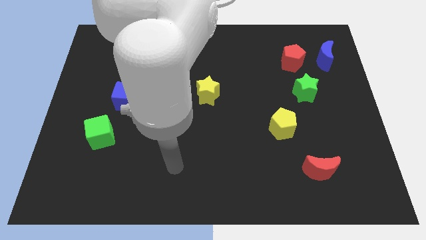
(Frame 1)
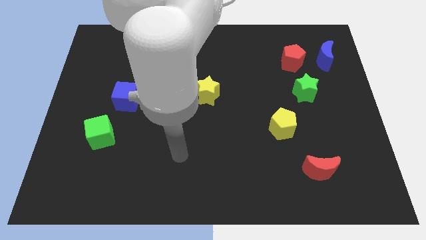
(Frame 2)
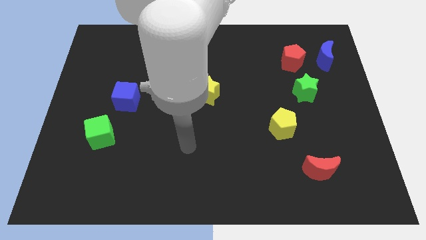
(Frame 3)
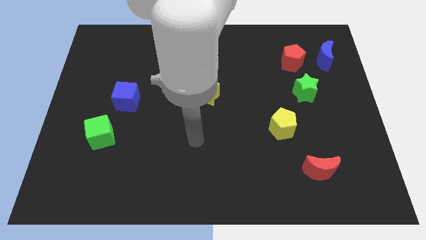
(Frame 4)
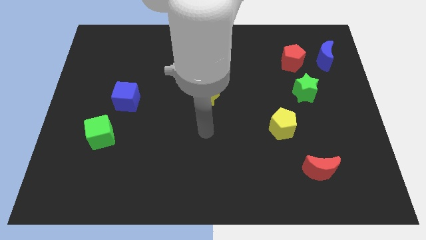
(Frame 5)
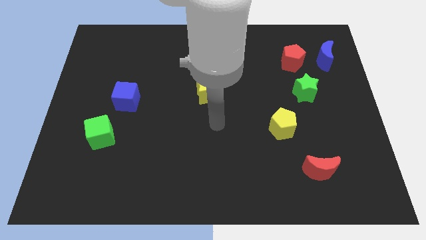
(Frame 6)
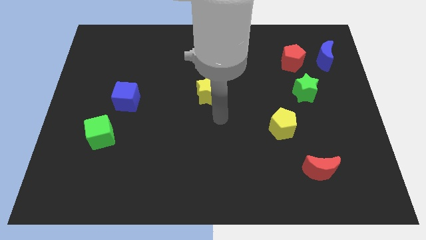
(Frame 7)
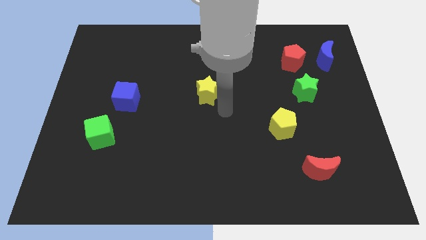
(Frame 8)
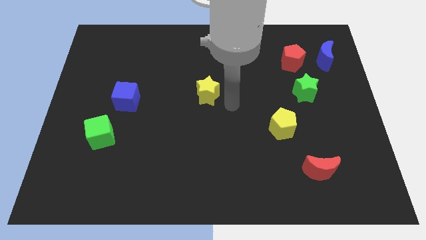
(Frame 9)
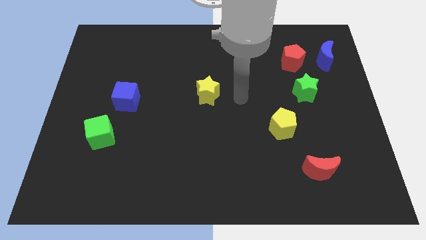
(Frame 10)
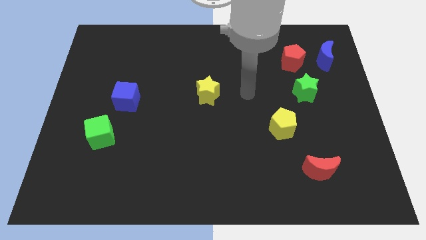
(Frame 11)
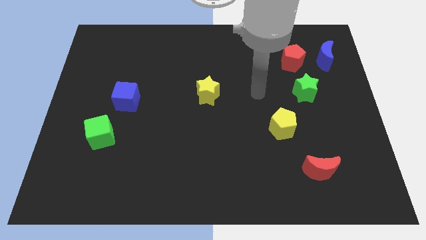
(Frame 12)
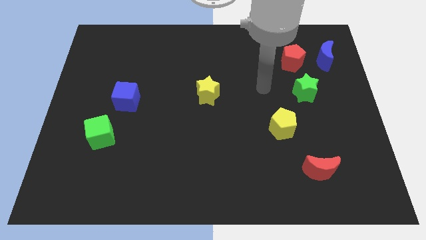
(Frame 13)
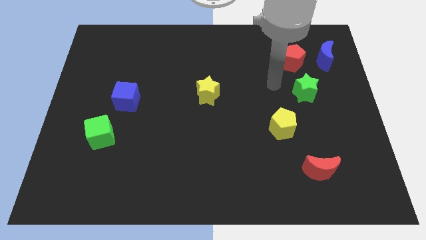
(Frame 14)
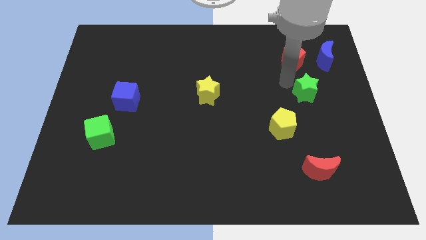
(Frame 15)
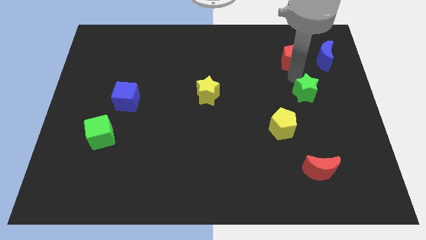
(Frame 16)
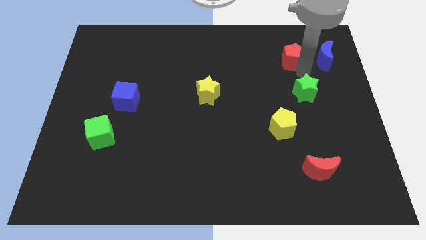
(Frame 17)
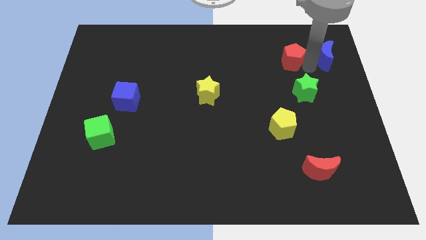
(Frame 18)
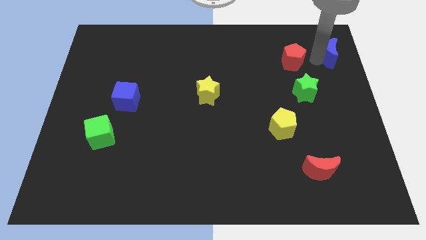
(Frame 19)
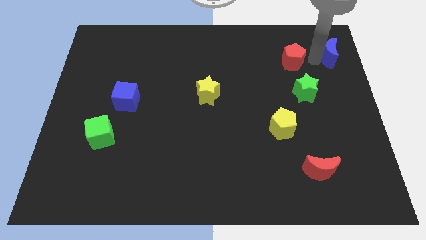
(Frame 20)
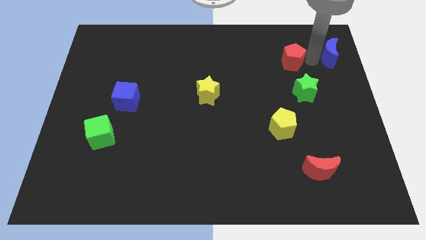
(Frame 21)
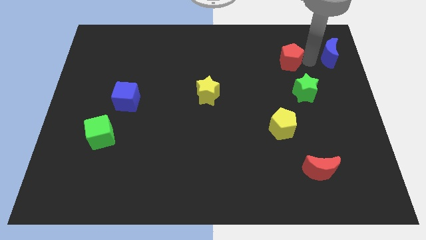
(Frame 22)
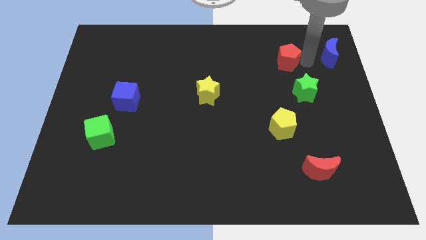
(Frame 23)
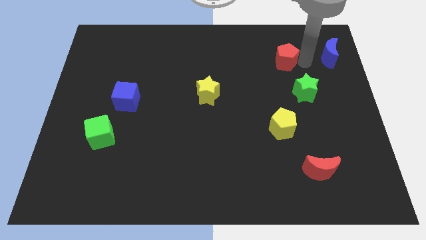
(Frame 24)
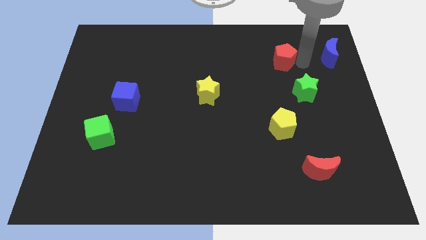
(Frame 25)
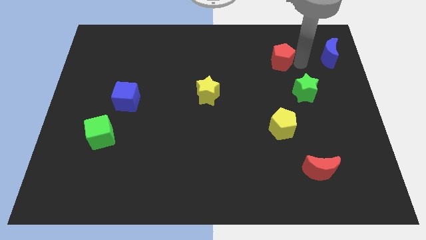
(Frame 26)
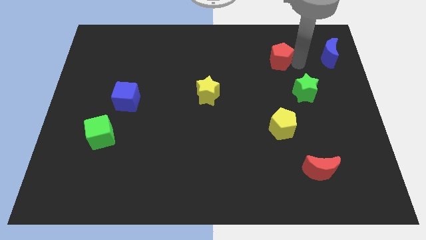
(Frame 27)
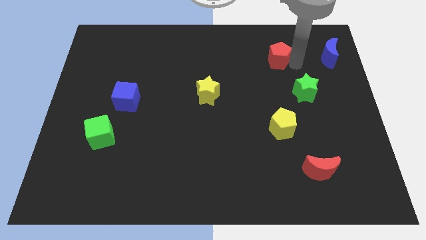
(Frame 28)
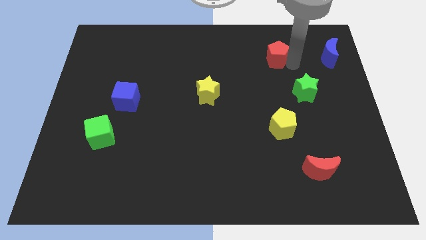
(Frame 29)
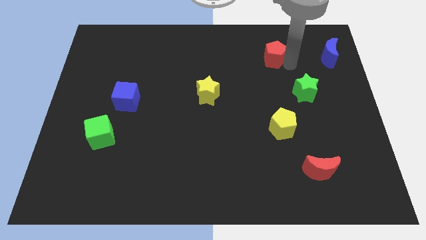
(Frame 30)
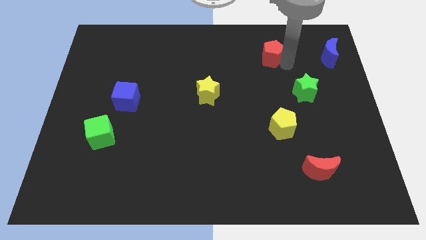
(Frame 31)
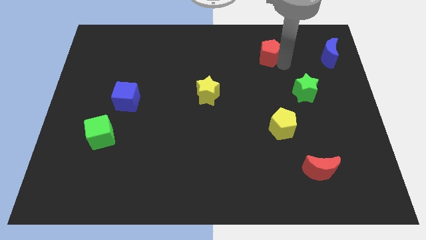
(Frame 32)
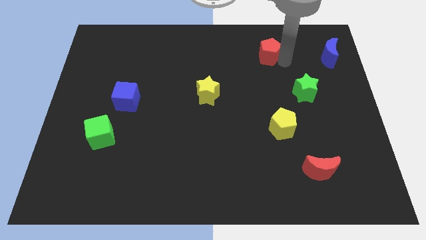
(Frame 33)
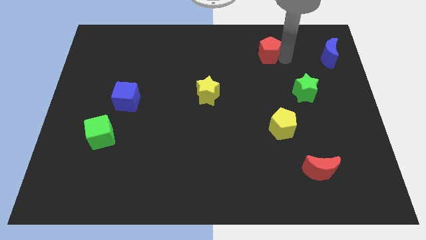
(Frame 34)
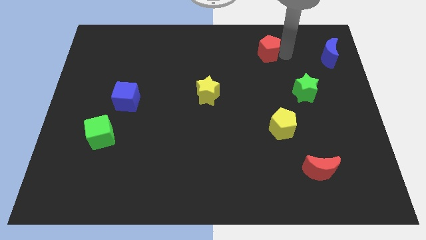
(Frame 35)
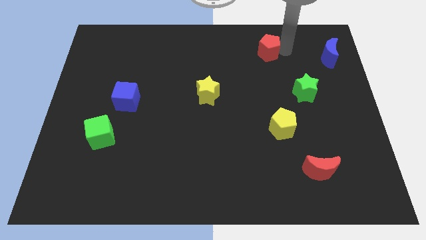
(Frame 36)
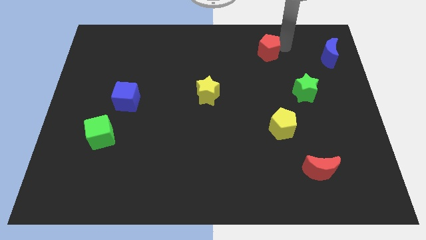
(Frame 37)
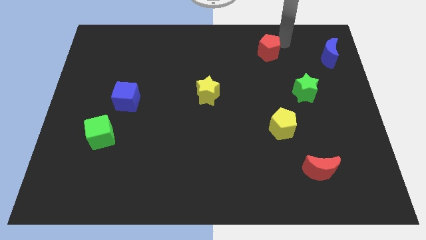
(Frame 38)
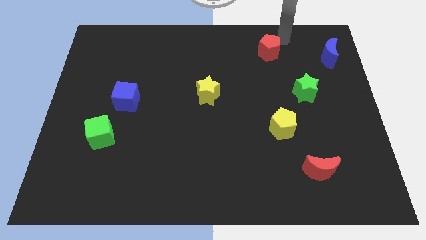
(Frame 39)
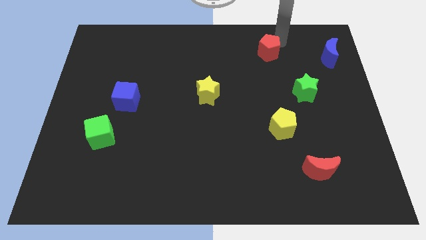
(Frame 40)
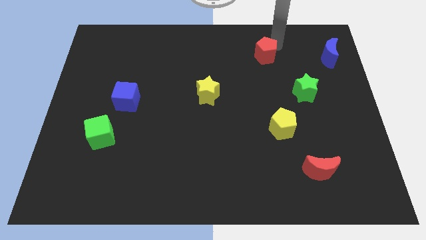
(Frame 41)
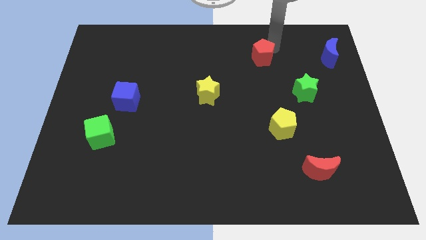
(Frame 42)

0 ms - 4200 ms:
push the red pentagon left a little bit

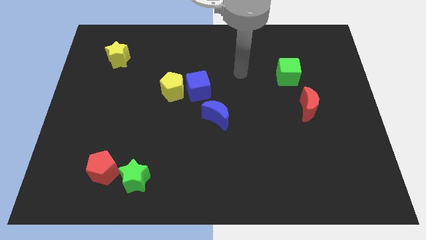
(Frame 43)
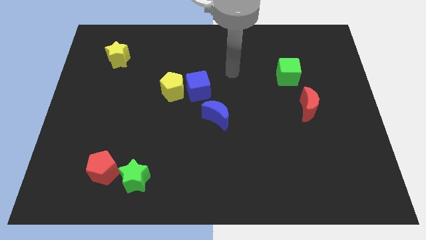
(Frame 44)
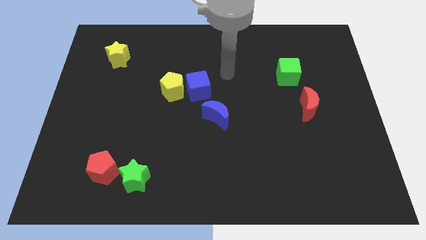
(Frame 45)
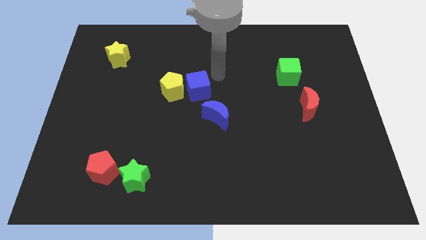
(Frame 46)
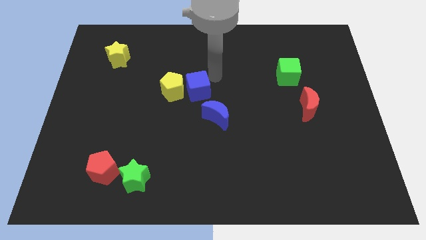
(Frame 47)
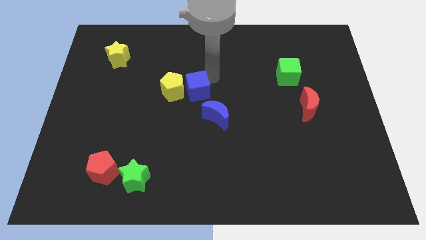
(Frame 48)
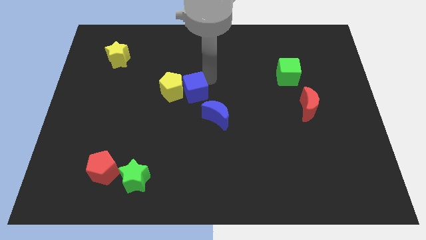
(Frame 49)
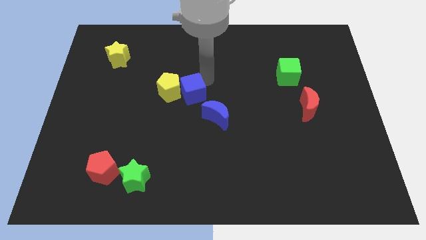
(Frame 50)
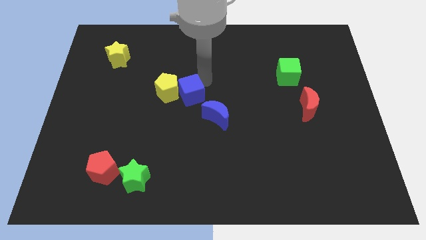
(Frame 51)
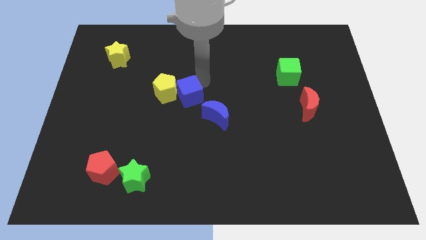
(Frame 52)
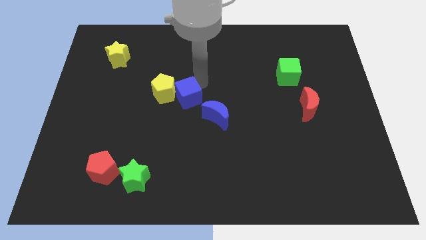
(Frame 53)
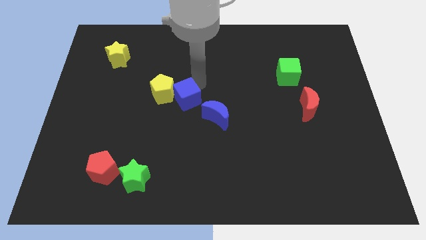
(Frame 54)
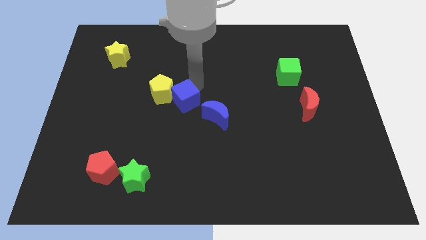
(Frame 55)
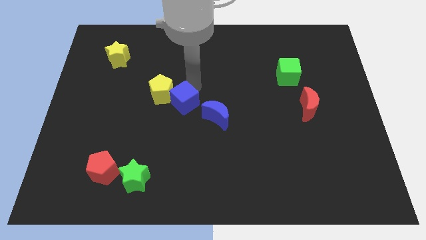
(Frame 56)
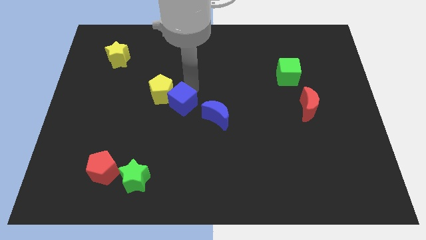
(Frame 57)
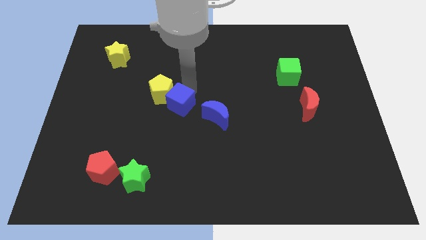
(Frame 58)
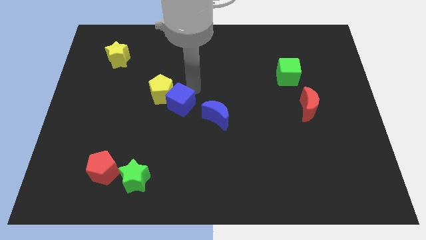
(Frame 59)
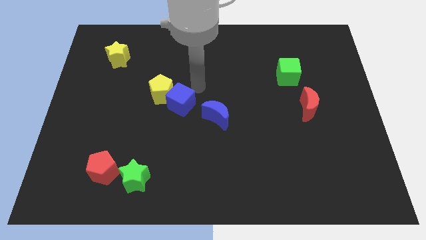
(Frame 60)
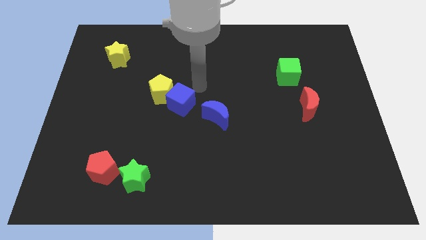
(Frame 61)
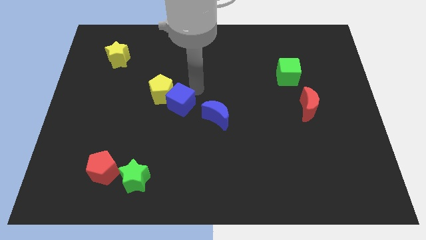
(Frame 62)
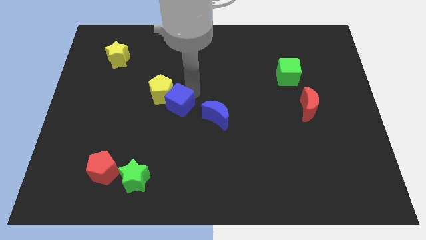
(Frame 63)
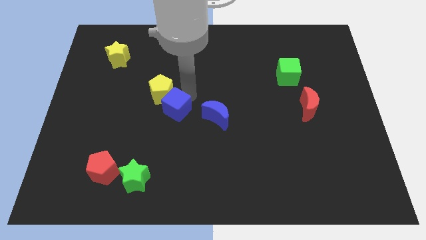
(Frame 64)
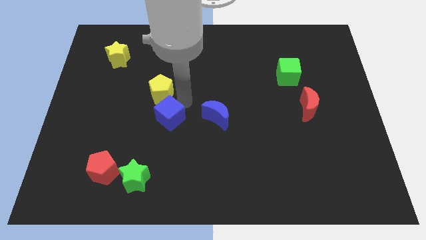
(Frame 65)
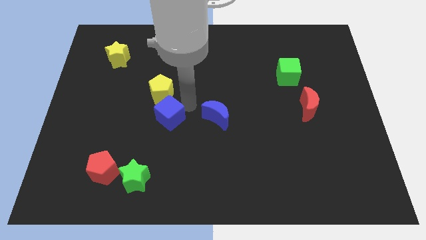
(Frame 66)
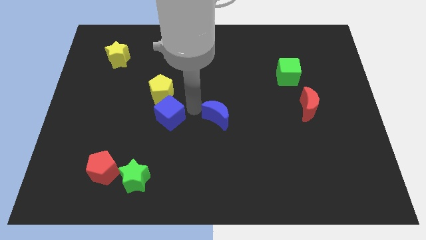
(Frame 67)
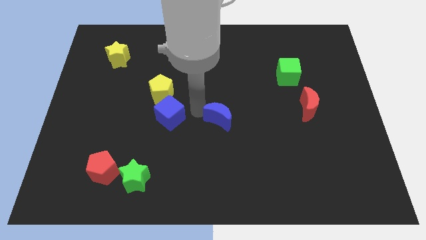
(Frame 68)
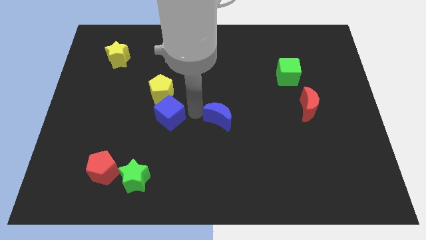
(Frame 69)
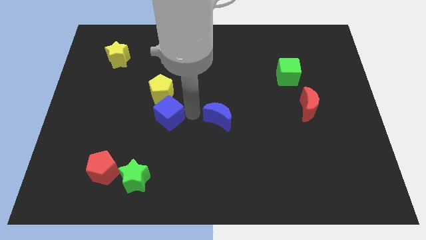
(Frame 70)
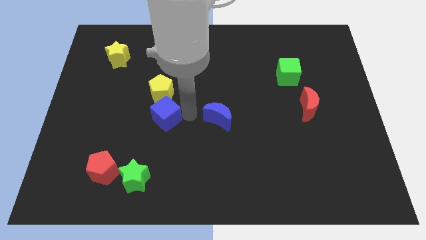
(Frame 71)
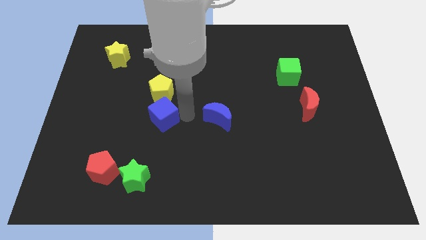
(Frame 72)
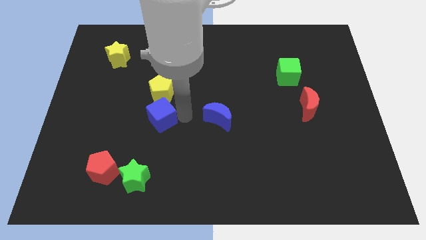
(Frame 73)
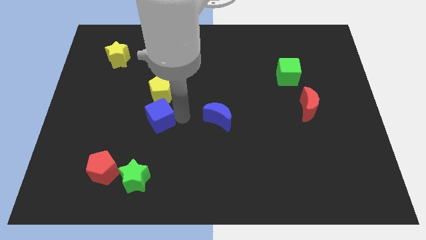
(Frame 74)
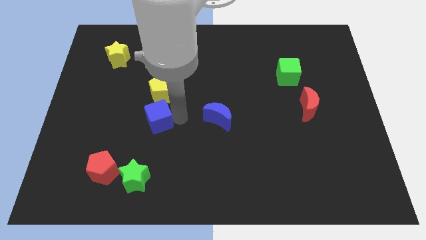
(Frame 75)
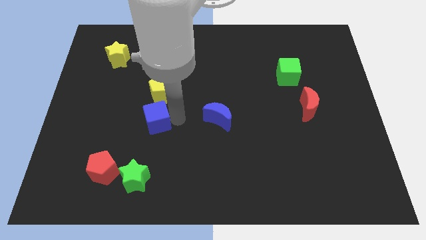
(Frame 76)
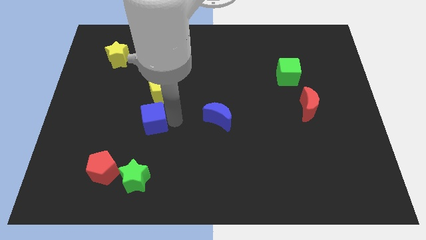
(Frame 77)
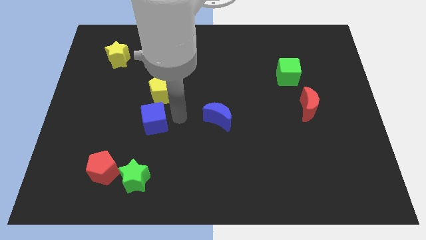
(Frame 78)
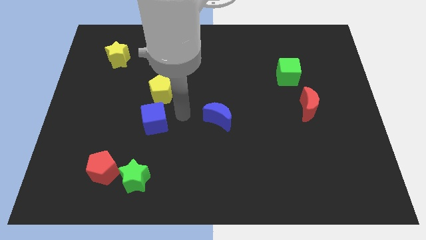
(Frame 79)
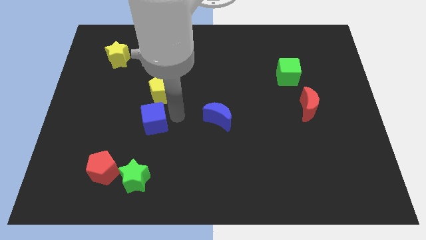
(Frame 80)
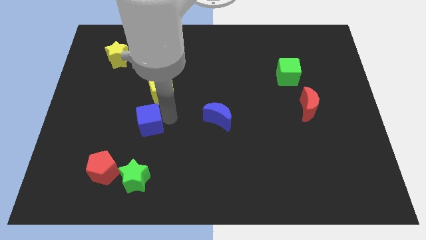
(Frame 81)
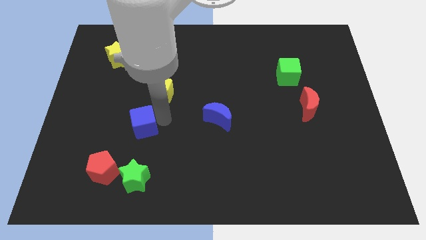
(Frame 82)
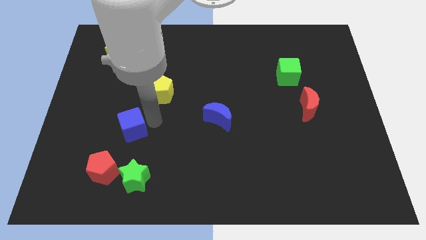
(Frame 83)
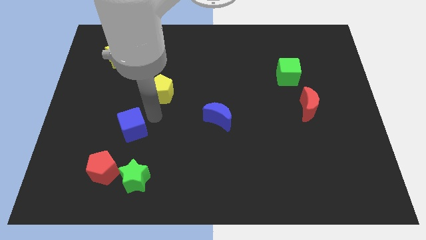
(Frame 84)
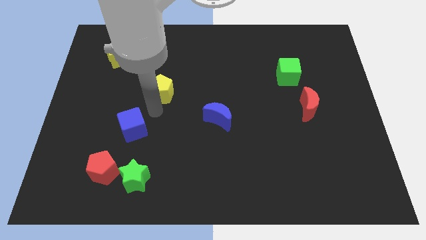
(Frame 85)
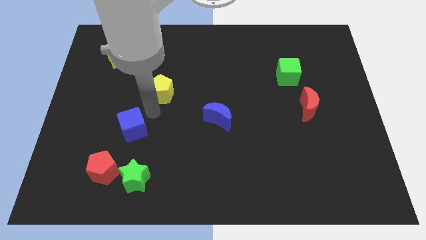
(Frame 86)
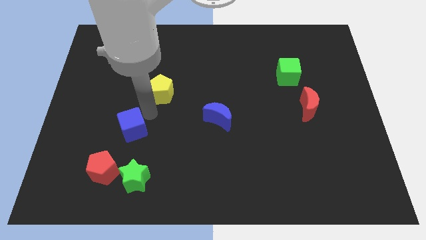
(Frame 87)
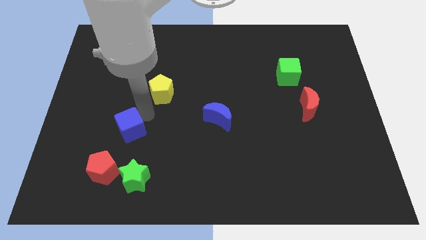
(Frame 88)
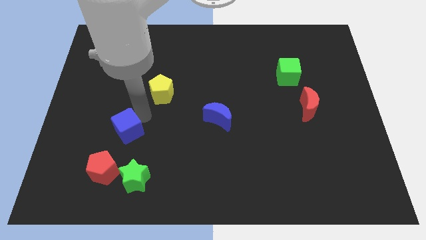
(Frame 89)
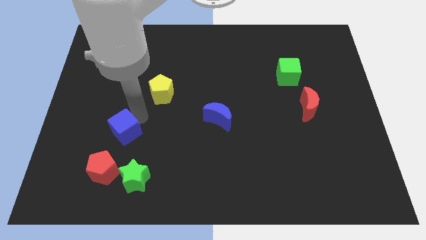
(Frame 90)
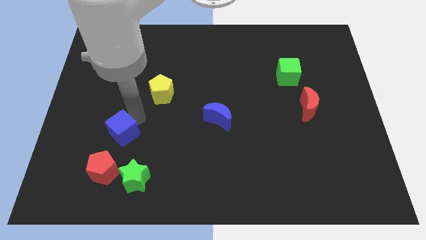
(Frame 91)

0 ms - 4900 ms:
slide the blue cube downwards and then left
